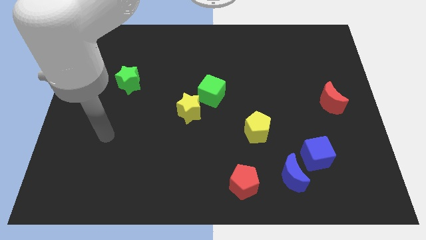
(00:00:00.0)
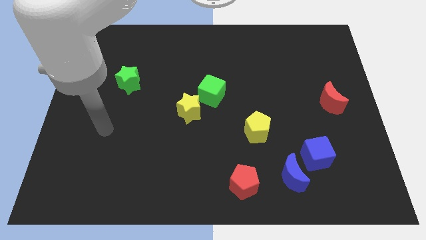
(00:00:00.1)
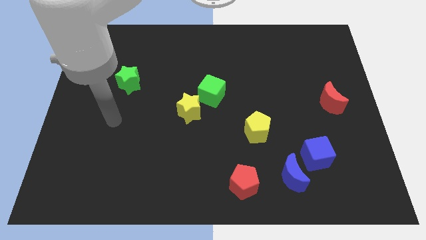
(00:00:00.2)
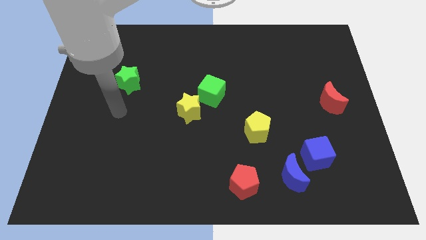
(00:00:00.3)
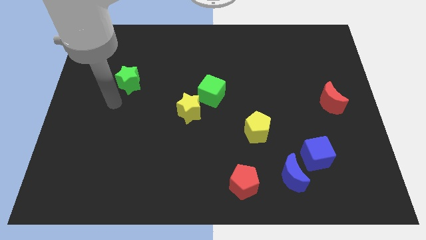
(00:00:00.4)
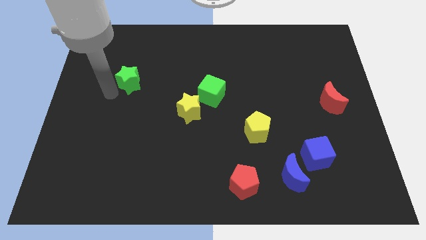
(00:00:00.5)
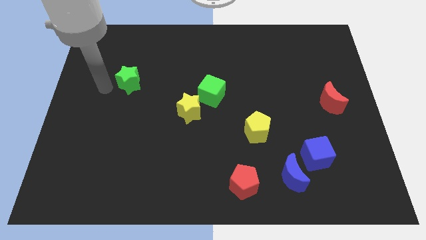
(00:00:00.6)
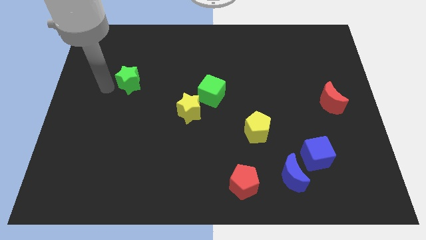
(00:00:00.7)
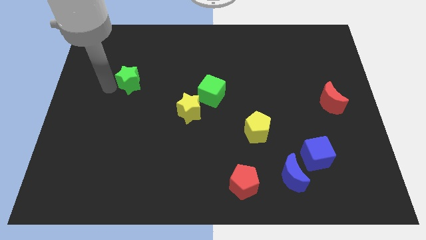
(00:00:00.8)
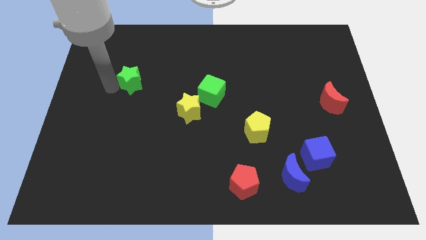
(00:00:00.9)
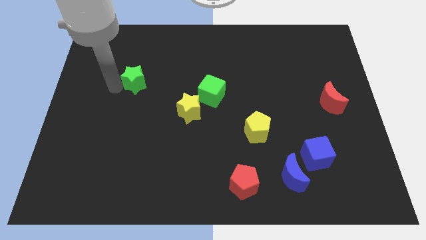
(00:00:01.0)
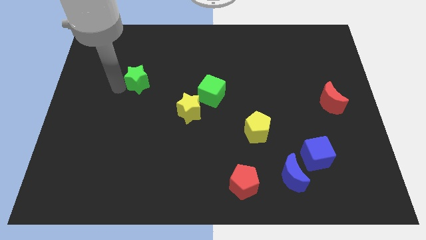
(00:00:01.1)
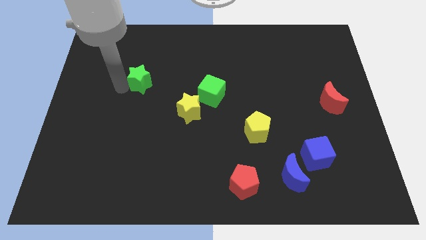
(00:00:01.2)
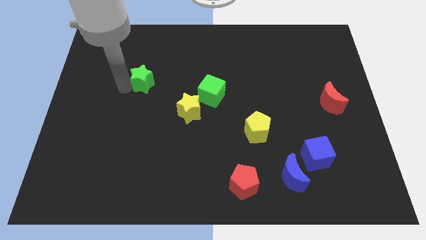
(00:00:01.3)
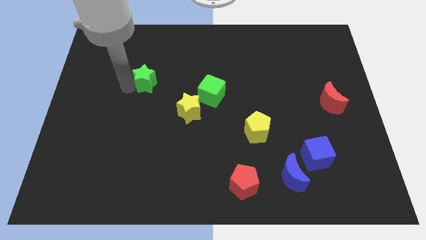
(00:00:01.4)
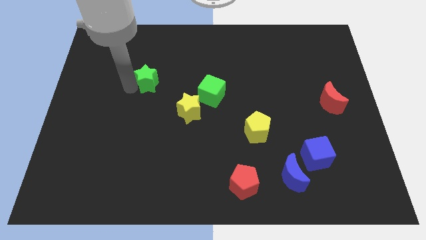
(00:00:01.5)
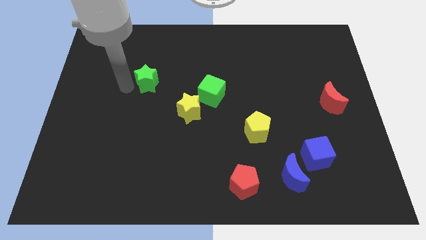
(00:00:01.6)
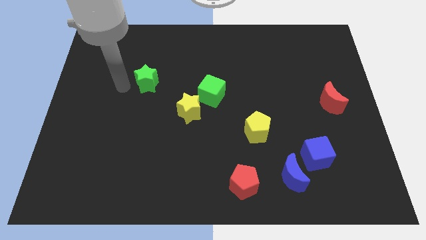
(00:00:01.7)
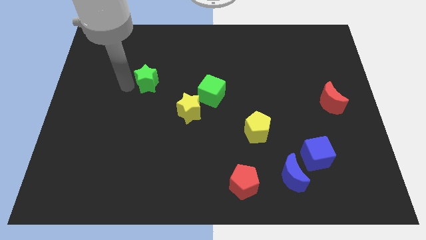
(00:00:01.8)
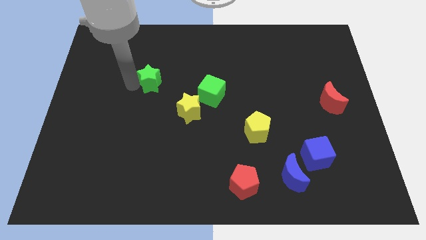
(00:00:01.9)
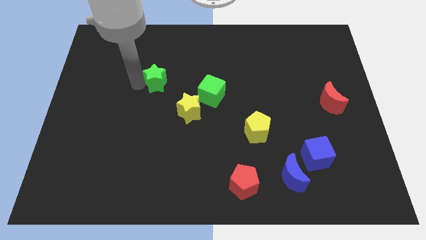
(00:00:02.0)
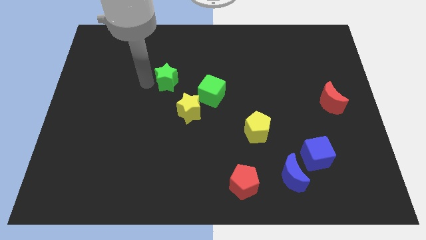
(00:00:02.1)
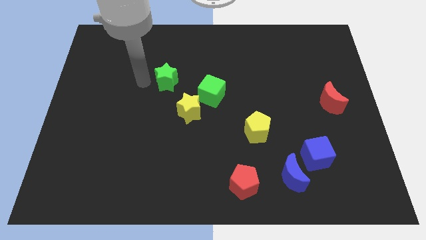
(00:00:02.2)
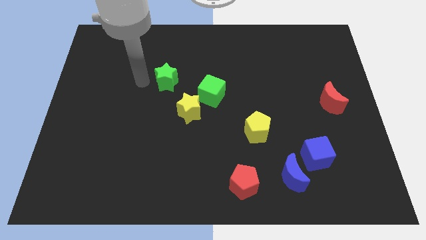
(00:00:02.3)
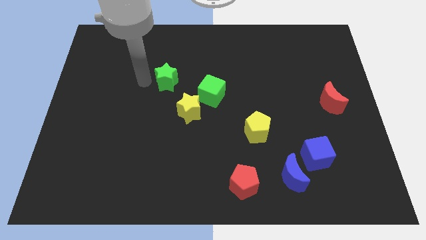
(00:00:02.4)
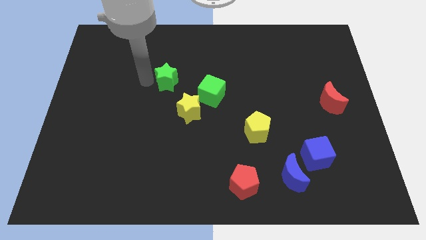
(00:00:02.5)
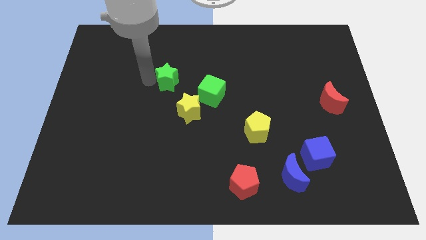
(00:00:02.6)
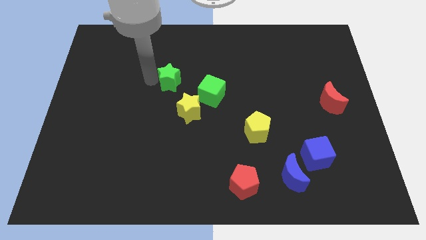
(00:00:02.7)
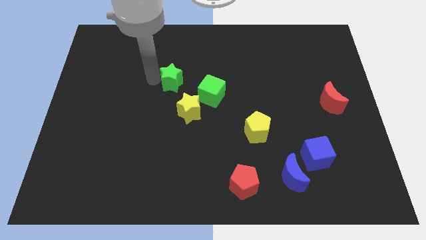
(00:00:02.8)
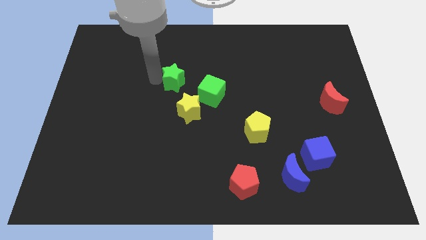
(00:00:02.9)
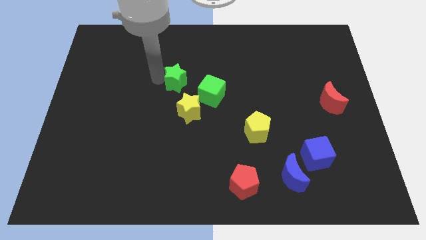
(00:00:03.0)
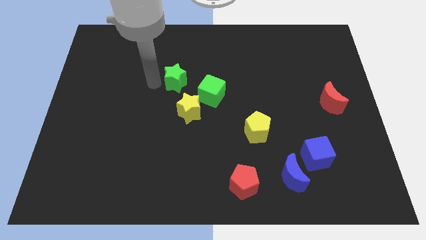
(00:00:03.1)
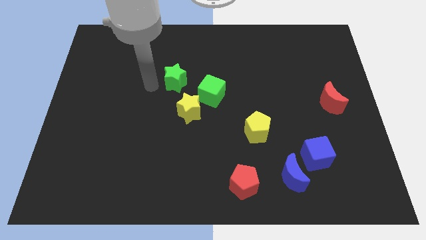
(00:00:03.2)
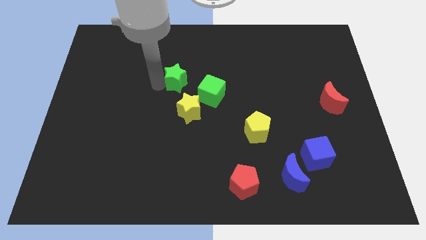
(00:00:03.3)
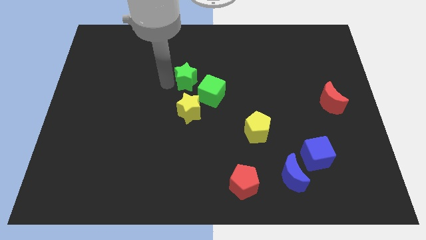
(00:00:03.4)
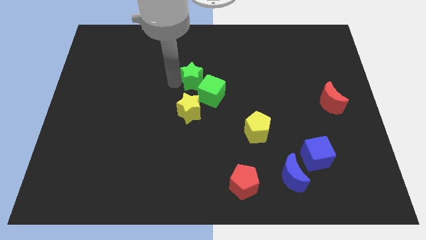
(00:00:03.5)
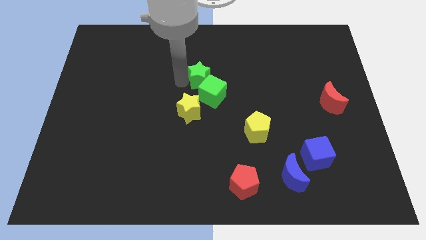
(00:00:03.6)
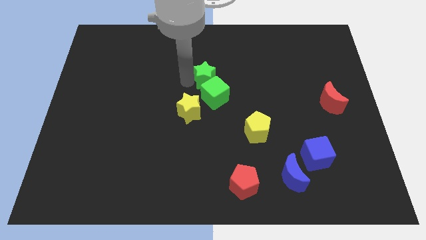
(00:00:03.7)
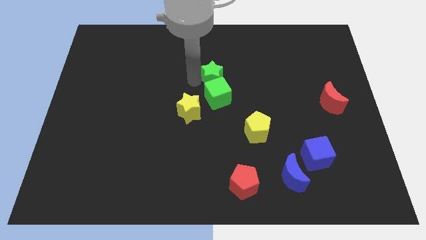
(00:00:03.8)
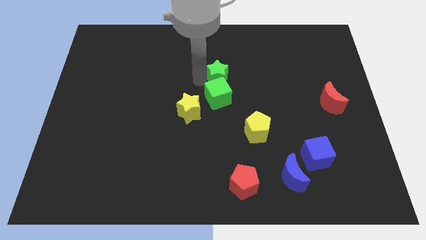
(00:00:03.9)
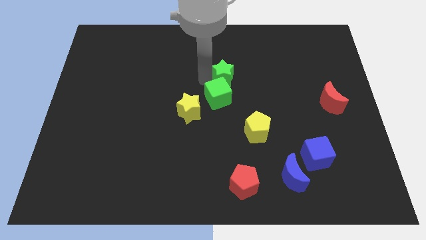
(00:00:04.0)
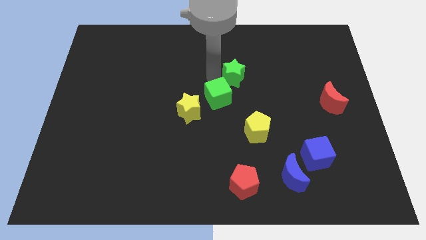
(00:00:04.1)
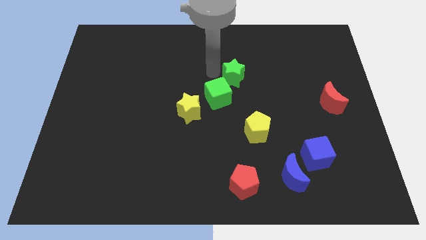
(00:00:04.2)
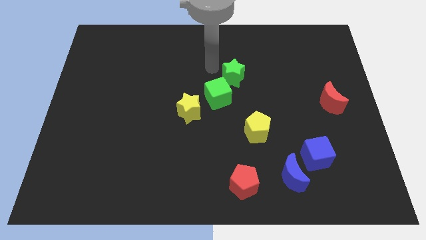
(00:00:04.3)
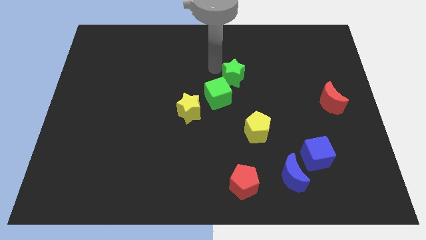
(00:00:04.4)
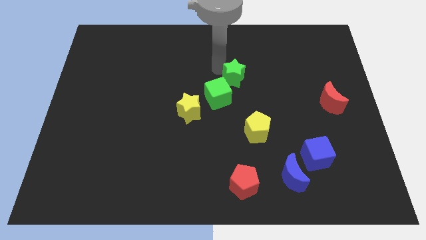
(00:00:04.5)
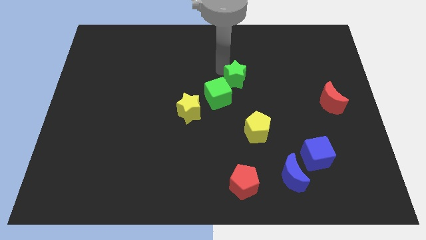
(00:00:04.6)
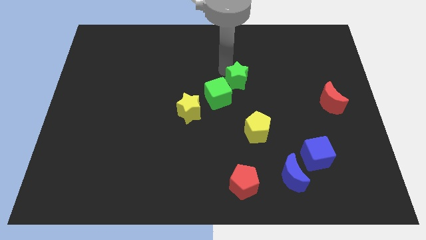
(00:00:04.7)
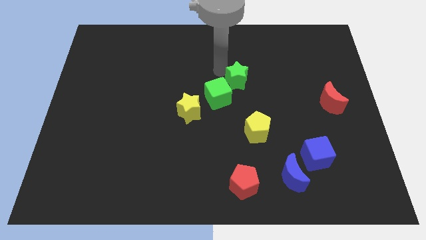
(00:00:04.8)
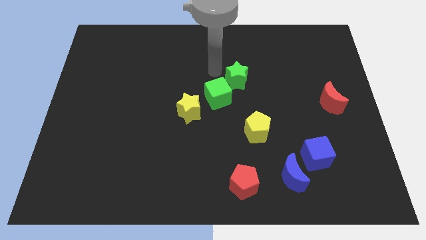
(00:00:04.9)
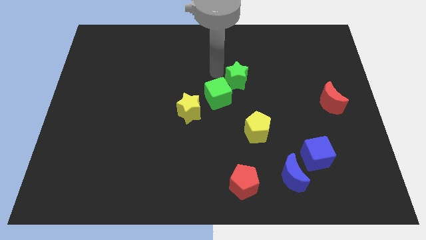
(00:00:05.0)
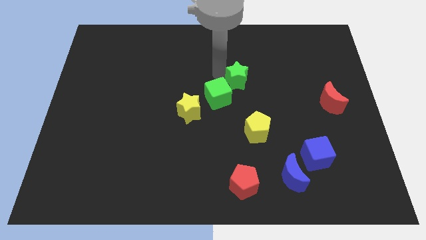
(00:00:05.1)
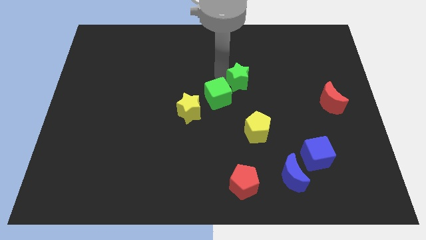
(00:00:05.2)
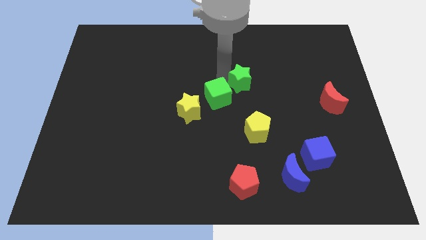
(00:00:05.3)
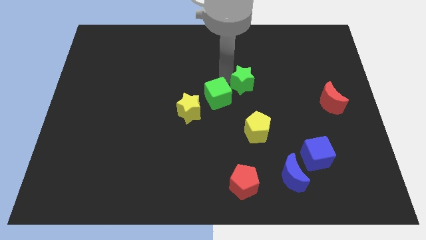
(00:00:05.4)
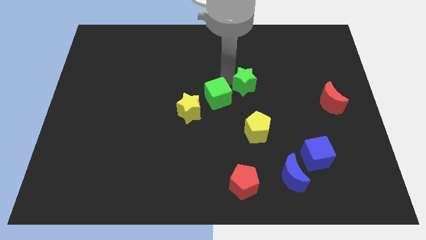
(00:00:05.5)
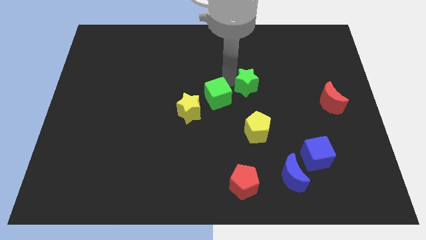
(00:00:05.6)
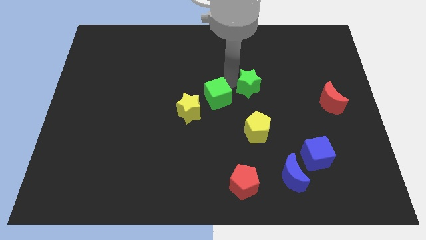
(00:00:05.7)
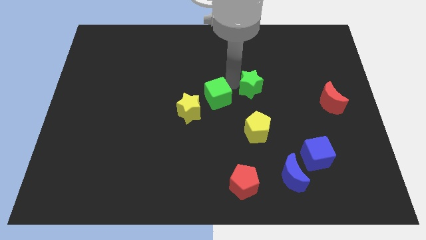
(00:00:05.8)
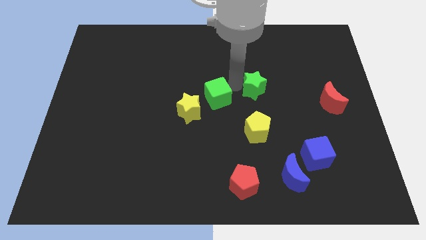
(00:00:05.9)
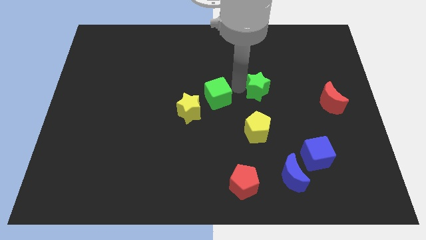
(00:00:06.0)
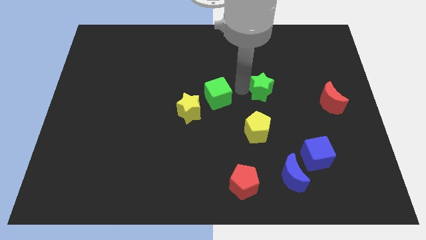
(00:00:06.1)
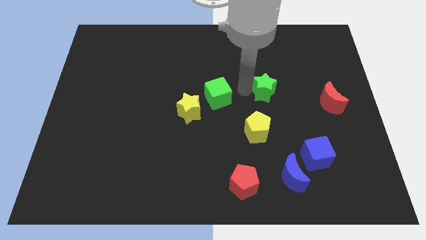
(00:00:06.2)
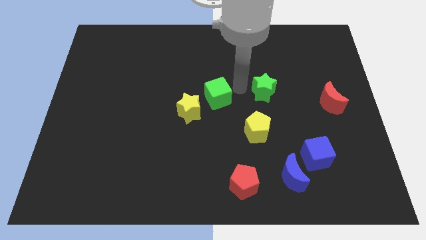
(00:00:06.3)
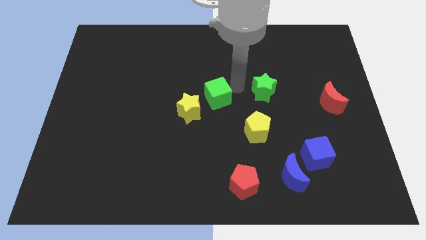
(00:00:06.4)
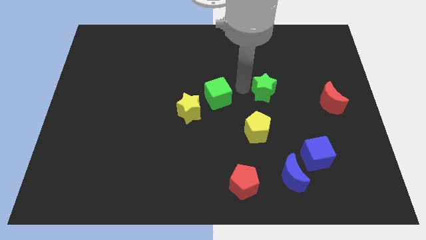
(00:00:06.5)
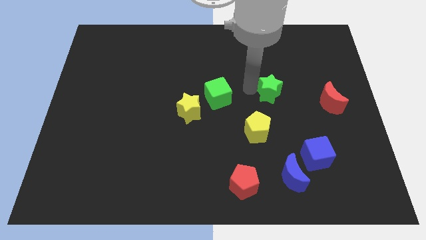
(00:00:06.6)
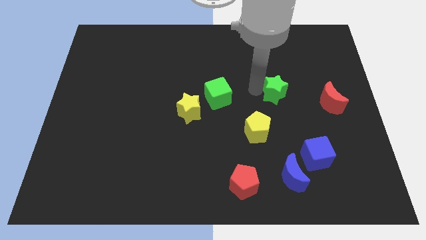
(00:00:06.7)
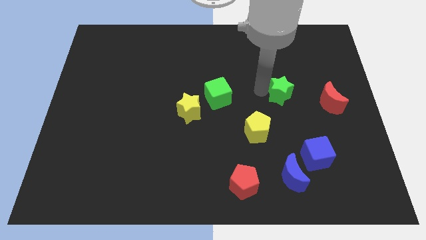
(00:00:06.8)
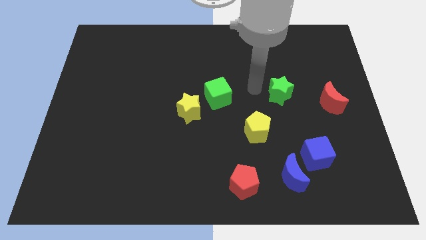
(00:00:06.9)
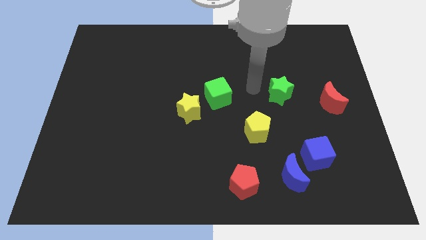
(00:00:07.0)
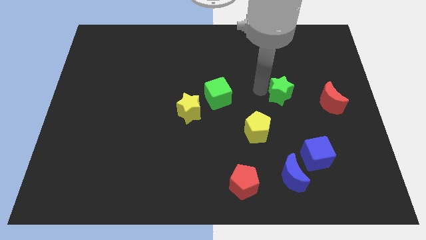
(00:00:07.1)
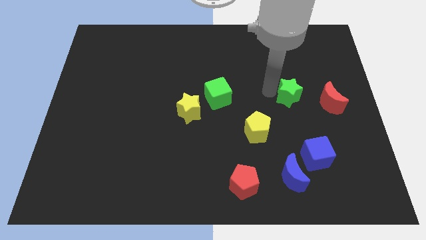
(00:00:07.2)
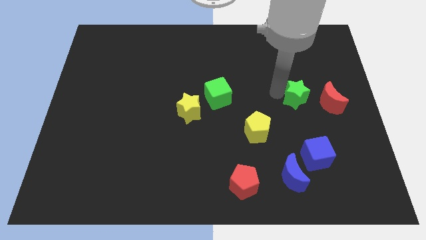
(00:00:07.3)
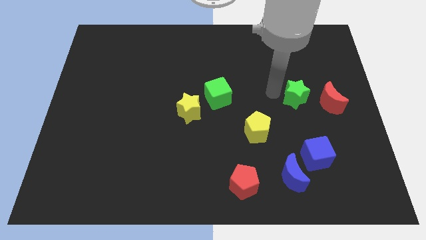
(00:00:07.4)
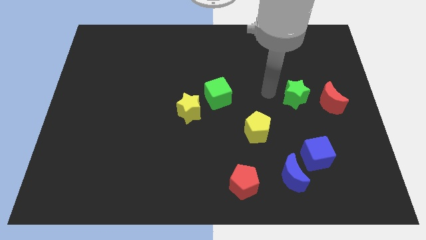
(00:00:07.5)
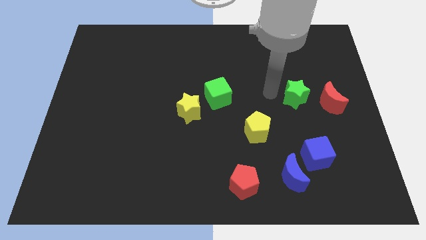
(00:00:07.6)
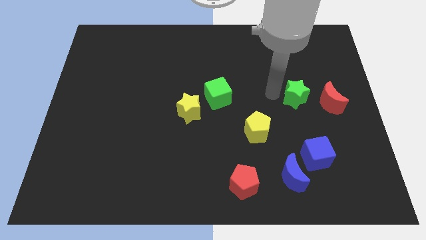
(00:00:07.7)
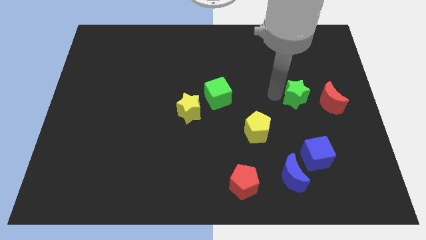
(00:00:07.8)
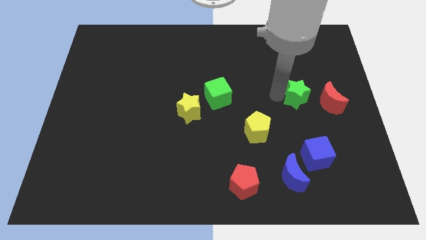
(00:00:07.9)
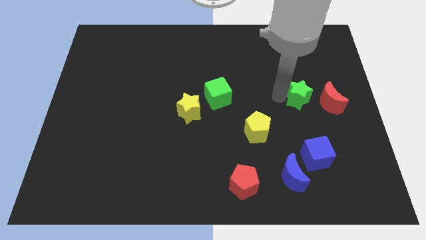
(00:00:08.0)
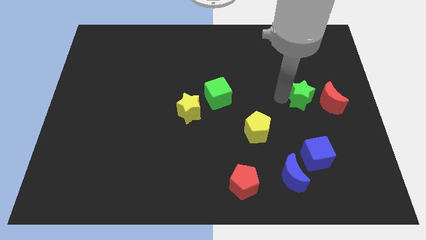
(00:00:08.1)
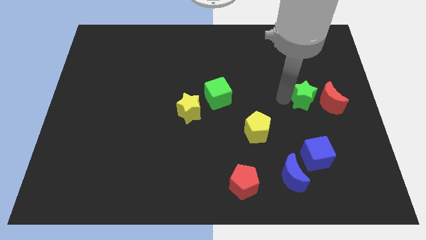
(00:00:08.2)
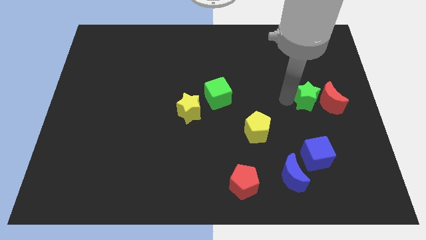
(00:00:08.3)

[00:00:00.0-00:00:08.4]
move the green star close to the red moon
